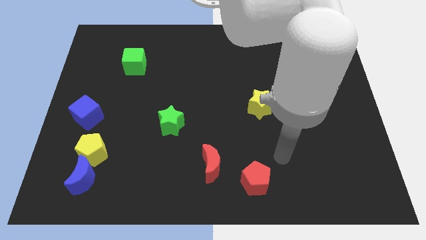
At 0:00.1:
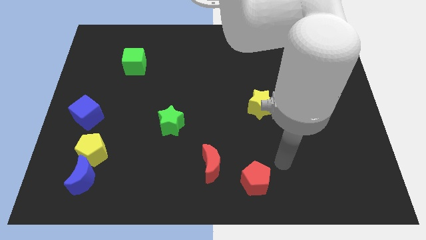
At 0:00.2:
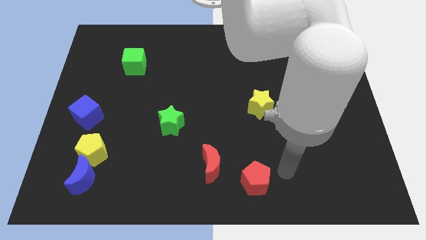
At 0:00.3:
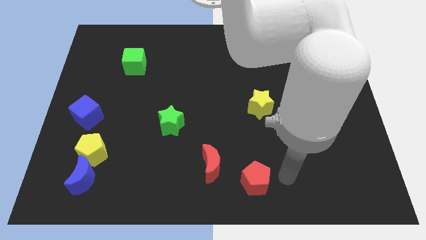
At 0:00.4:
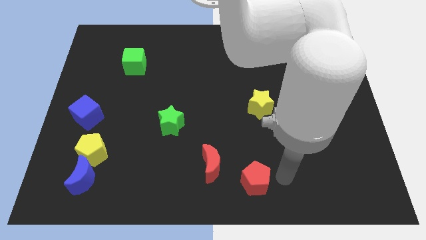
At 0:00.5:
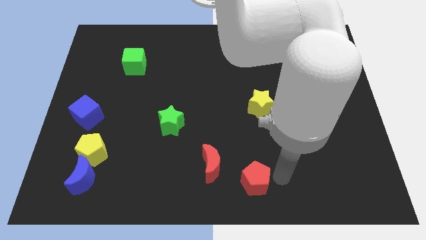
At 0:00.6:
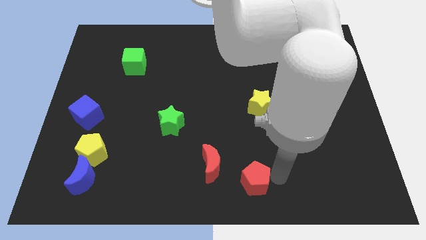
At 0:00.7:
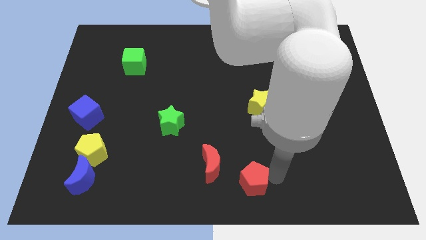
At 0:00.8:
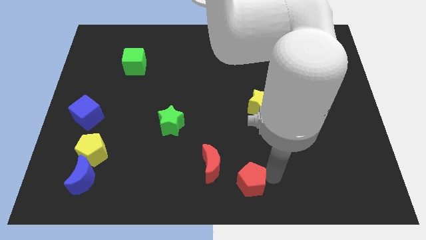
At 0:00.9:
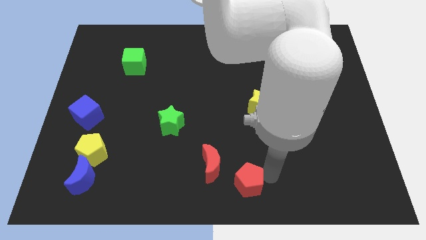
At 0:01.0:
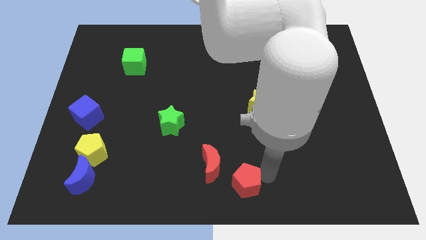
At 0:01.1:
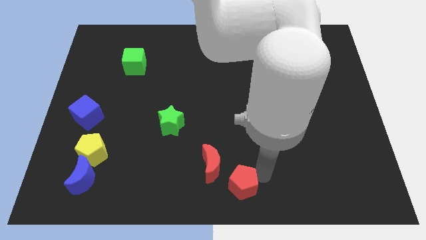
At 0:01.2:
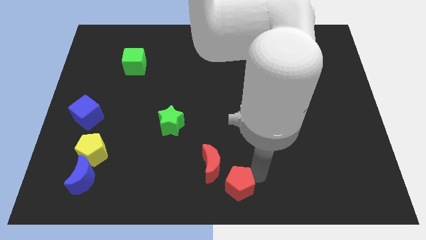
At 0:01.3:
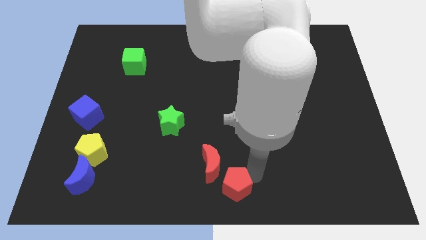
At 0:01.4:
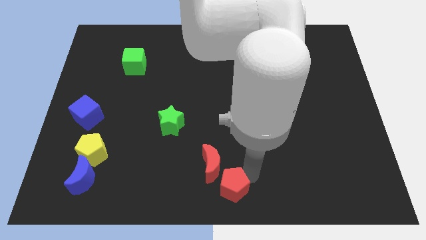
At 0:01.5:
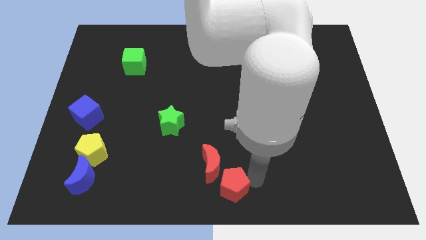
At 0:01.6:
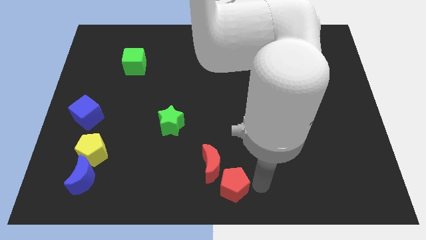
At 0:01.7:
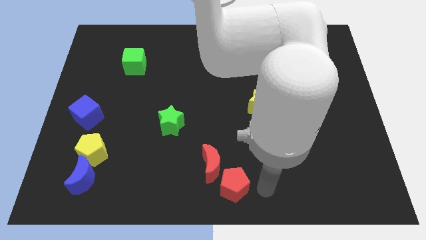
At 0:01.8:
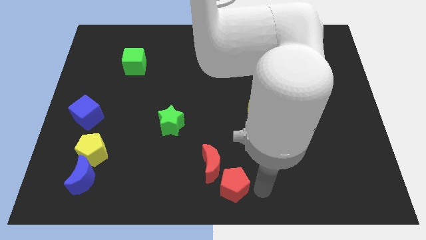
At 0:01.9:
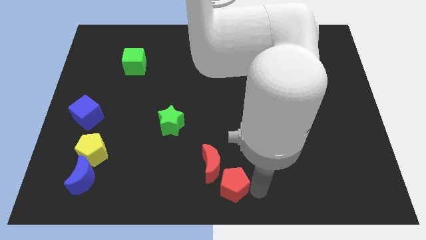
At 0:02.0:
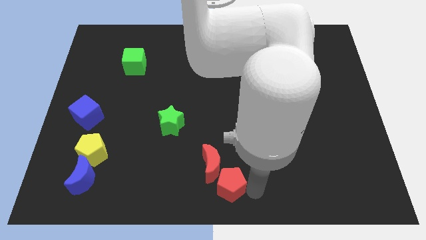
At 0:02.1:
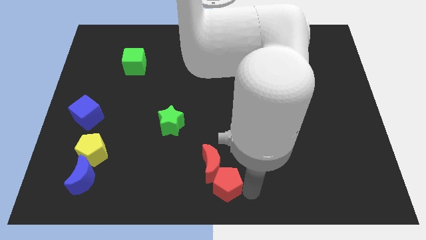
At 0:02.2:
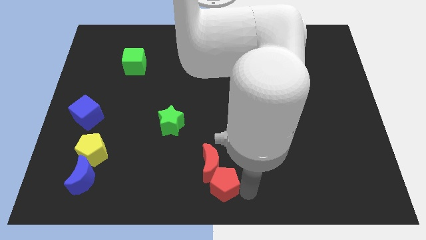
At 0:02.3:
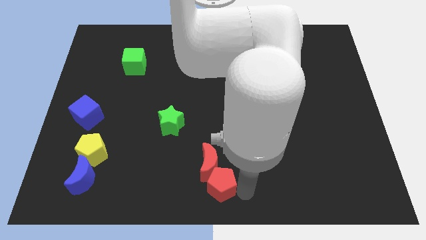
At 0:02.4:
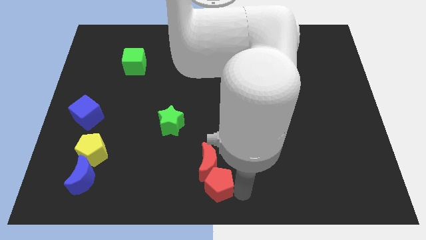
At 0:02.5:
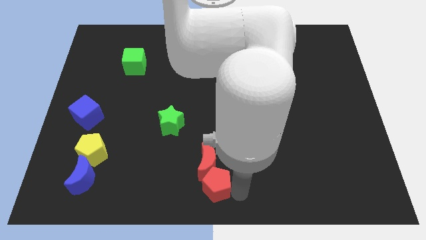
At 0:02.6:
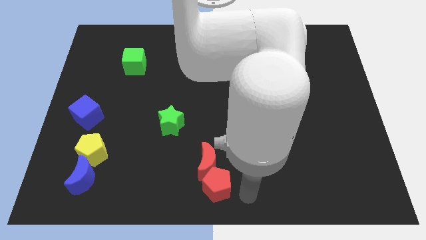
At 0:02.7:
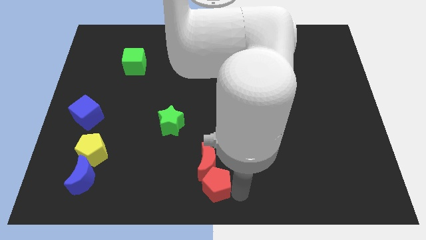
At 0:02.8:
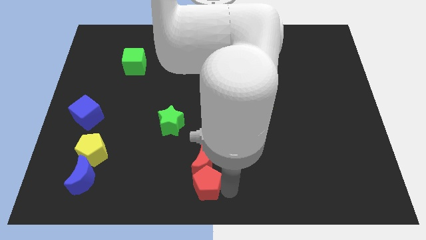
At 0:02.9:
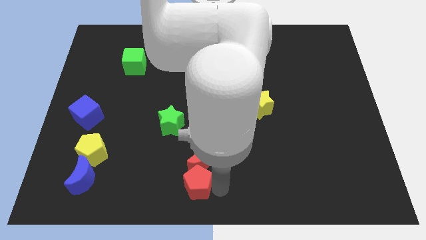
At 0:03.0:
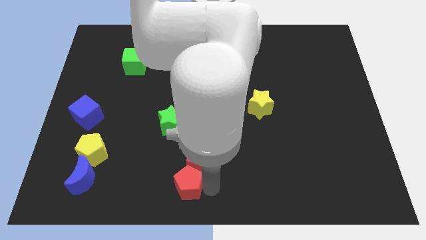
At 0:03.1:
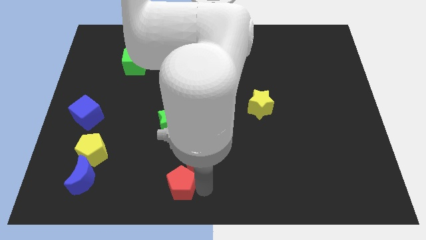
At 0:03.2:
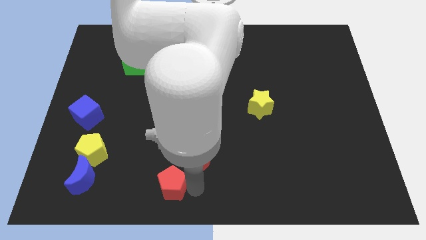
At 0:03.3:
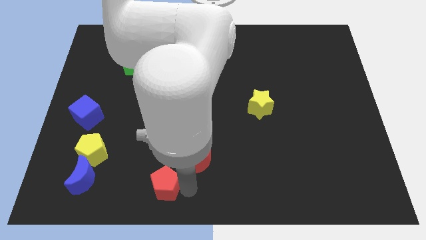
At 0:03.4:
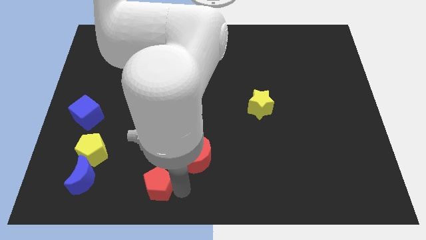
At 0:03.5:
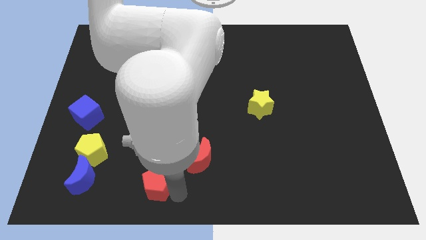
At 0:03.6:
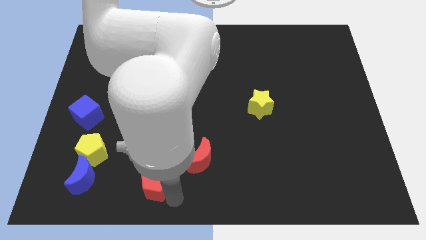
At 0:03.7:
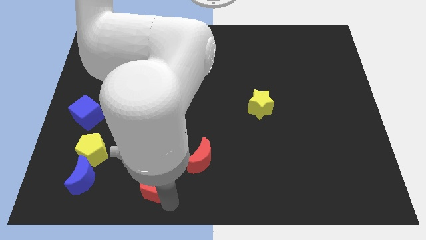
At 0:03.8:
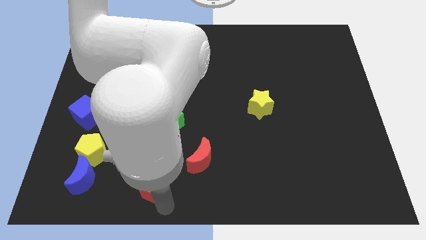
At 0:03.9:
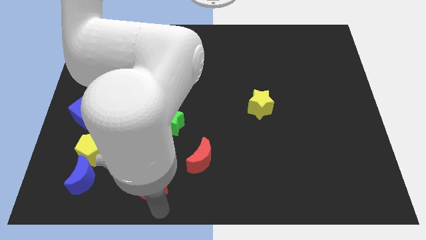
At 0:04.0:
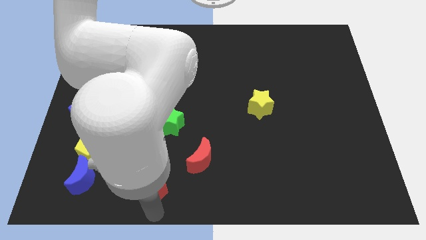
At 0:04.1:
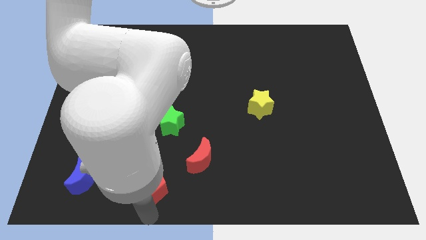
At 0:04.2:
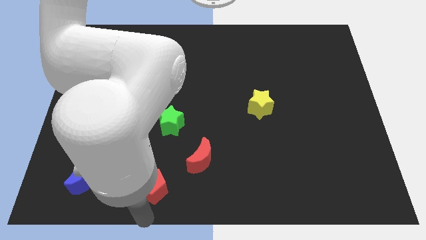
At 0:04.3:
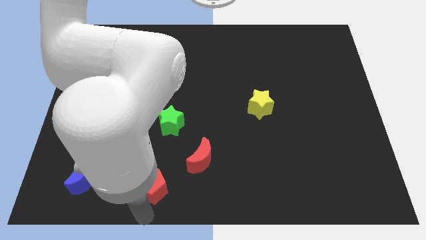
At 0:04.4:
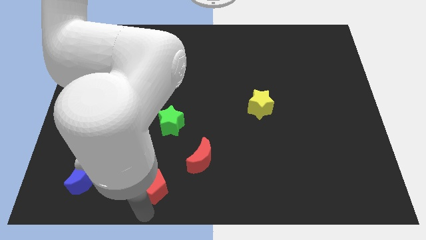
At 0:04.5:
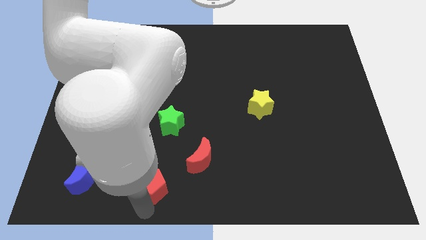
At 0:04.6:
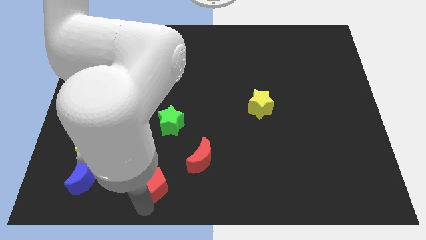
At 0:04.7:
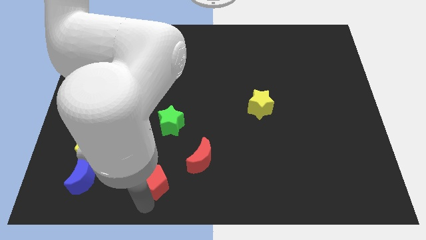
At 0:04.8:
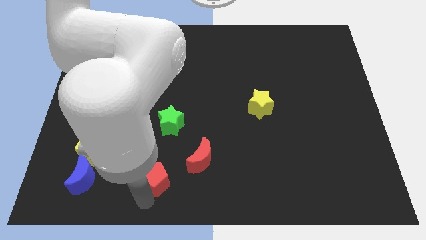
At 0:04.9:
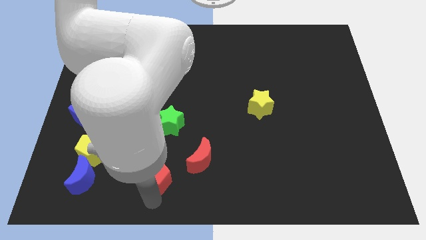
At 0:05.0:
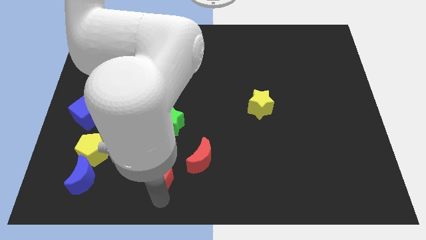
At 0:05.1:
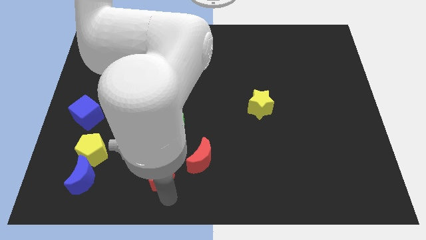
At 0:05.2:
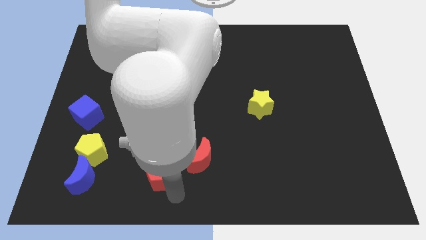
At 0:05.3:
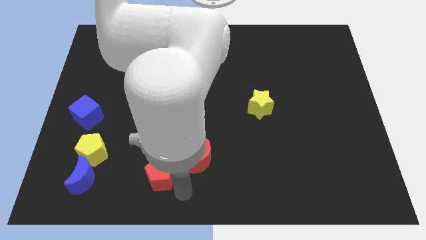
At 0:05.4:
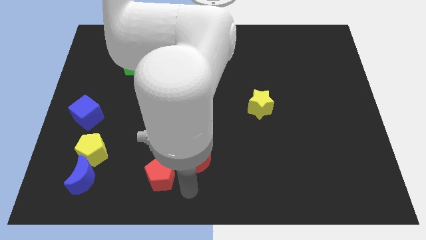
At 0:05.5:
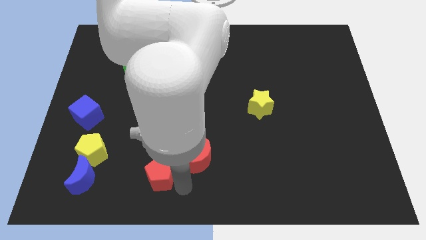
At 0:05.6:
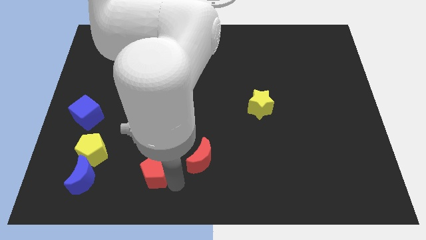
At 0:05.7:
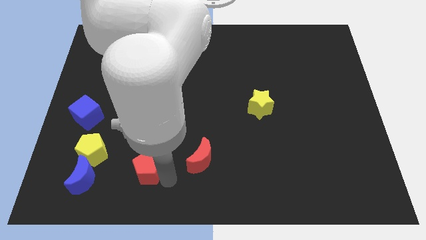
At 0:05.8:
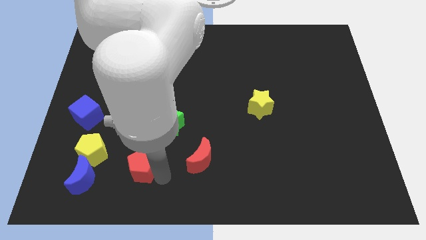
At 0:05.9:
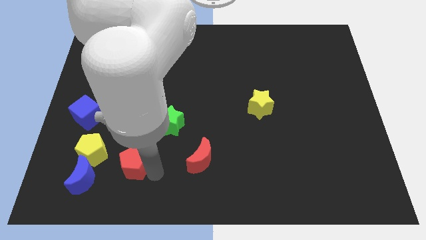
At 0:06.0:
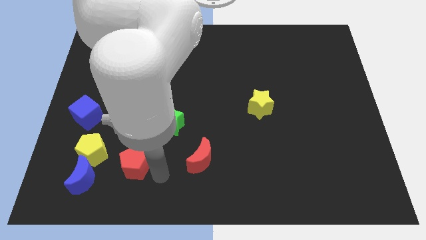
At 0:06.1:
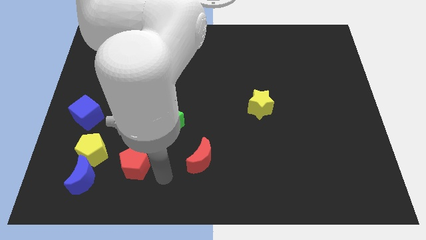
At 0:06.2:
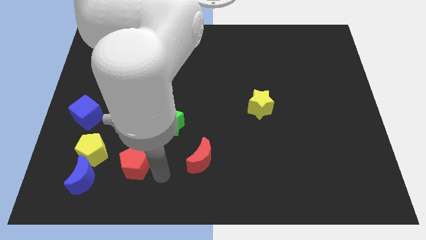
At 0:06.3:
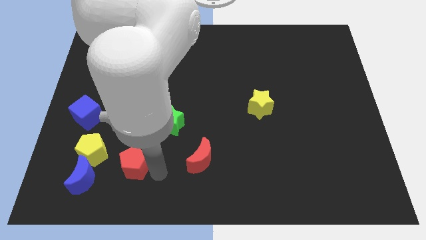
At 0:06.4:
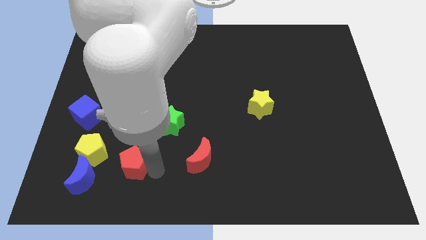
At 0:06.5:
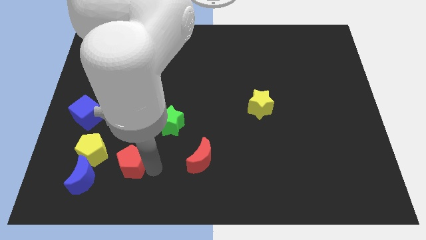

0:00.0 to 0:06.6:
move the red pentagon diagonally up and to the right of the blue moon

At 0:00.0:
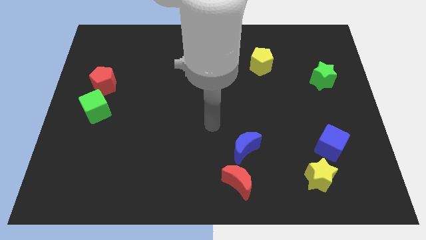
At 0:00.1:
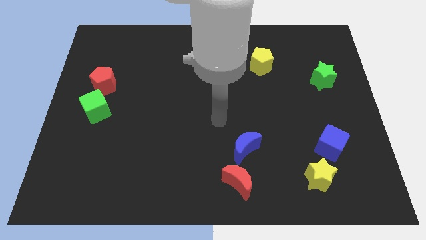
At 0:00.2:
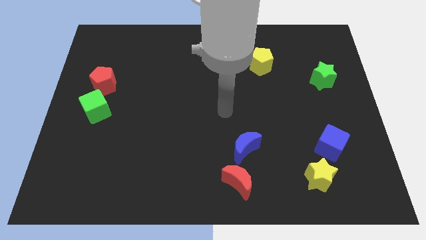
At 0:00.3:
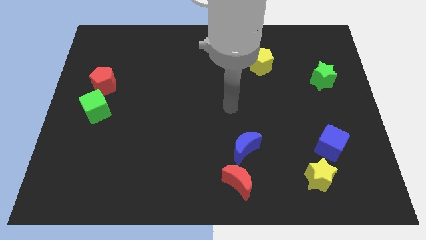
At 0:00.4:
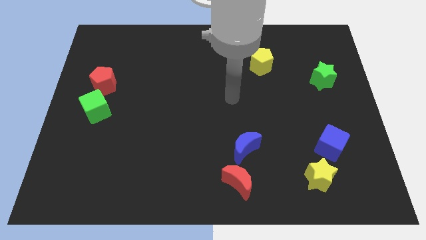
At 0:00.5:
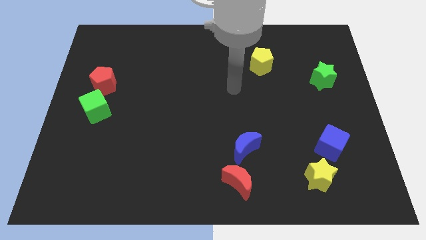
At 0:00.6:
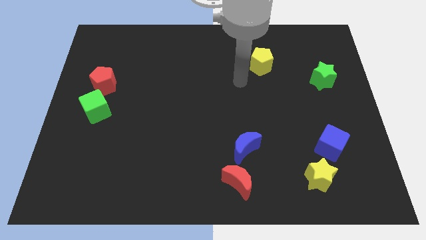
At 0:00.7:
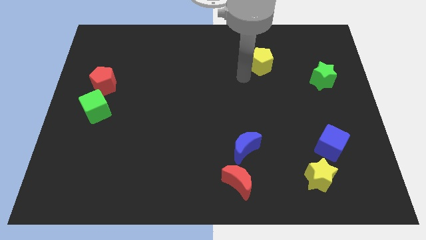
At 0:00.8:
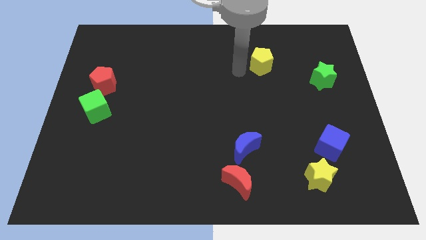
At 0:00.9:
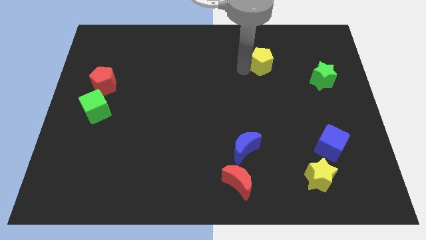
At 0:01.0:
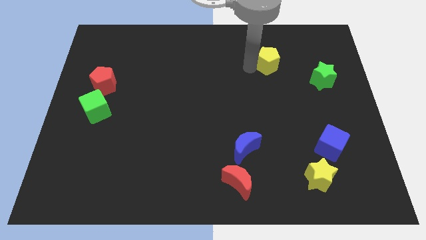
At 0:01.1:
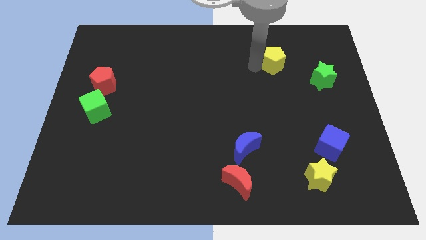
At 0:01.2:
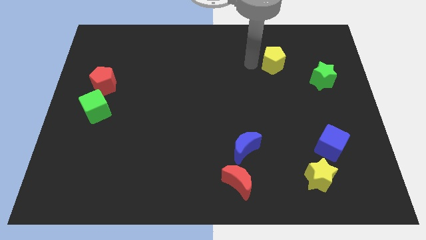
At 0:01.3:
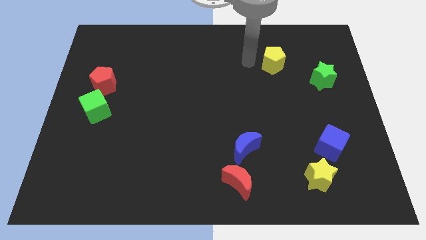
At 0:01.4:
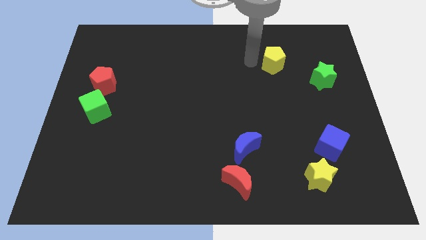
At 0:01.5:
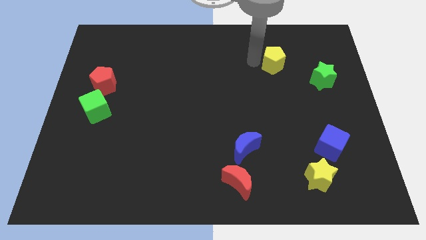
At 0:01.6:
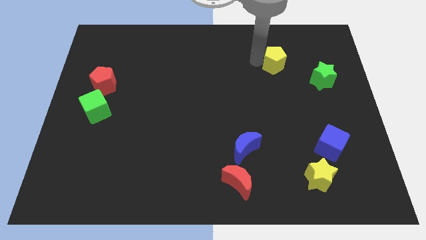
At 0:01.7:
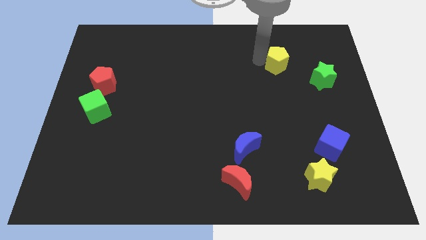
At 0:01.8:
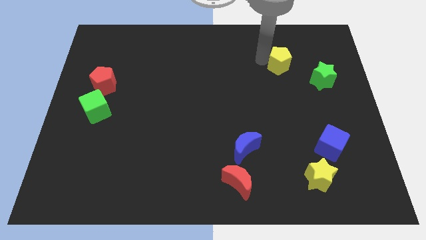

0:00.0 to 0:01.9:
put the yellow pentagon diagonally up and to the left of the green star
